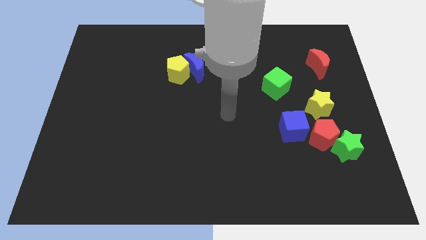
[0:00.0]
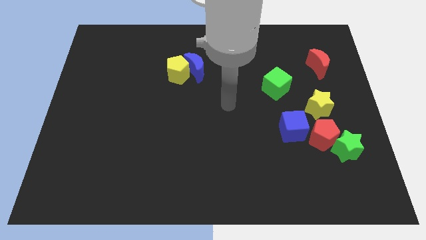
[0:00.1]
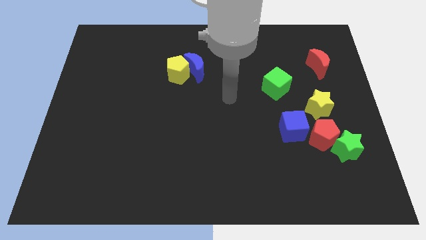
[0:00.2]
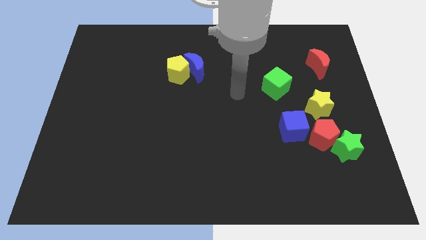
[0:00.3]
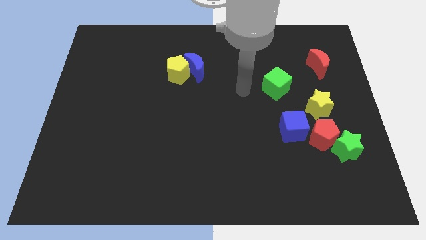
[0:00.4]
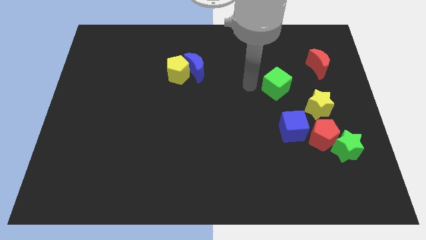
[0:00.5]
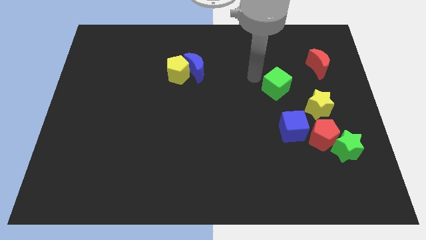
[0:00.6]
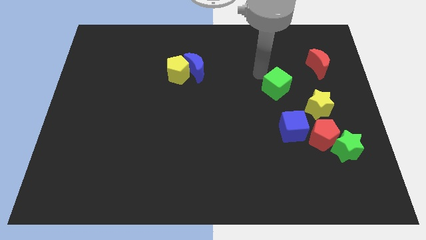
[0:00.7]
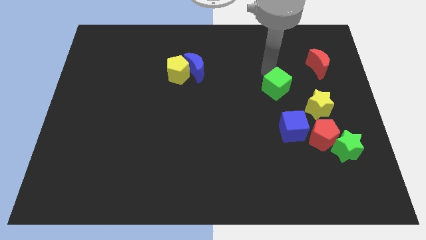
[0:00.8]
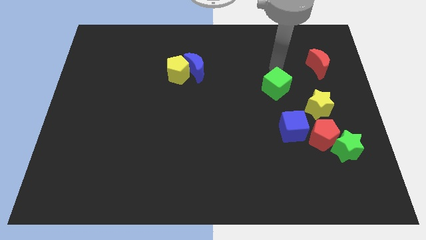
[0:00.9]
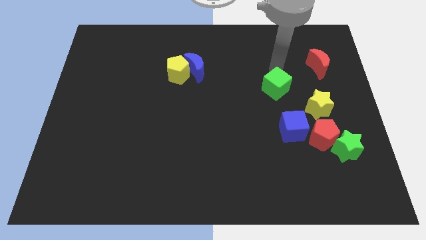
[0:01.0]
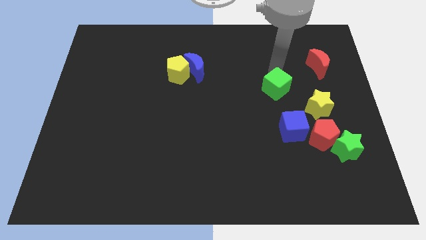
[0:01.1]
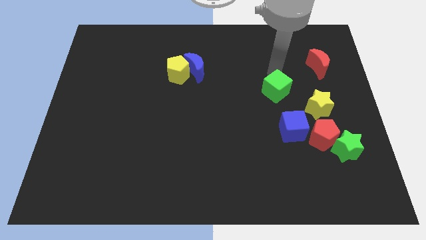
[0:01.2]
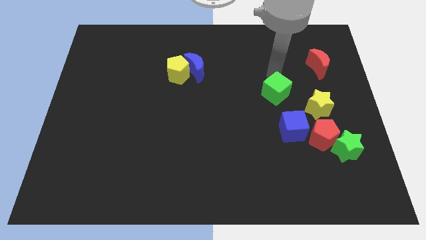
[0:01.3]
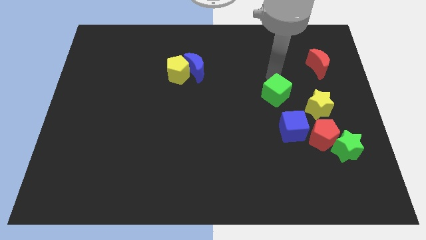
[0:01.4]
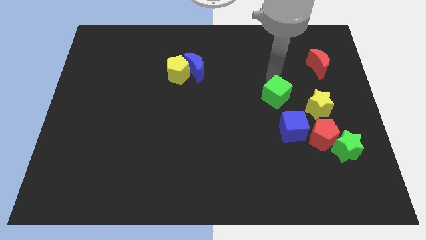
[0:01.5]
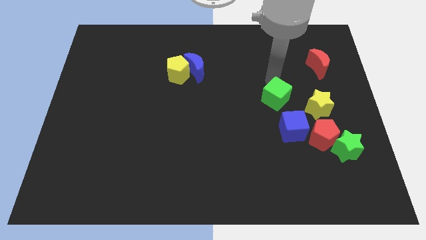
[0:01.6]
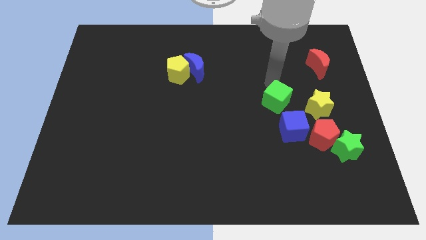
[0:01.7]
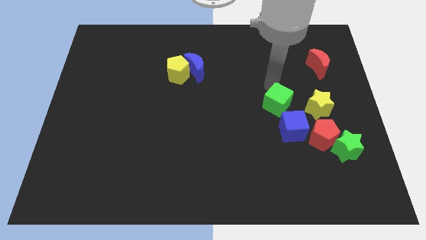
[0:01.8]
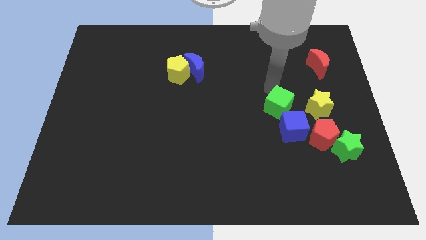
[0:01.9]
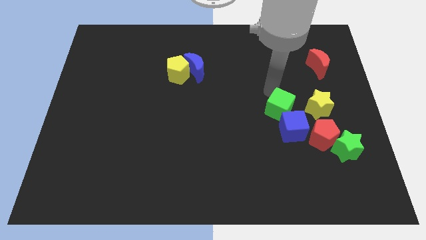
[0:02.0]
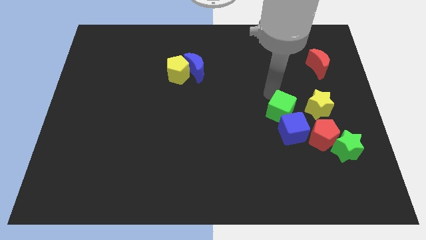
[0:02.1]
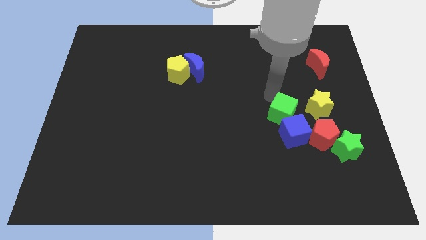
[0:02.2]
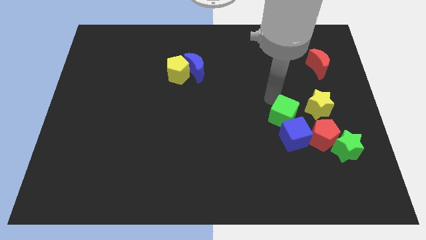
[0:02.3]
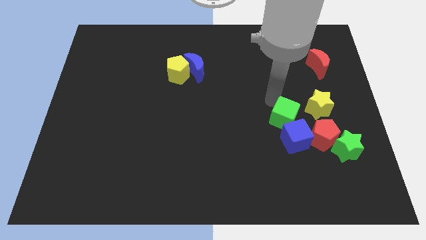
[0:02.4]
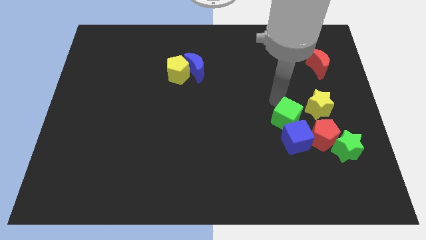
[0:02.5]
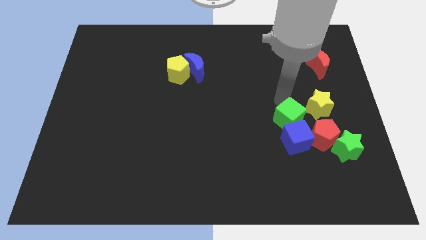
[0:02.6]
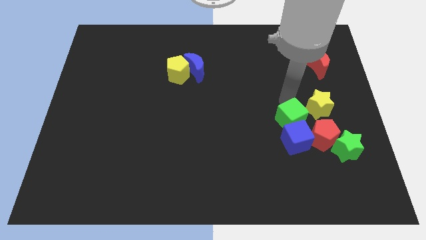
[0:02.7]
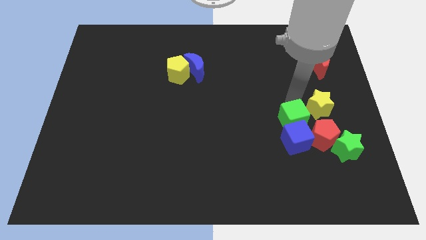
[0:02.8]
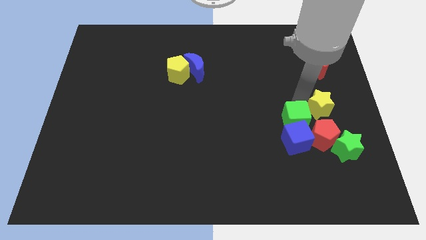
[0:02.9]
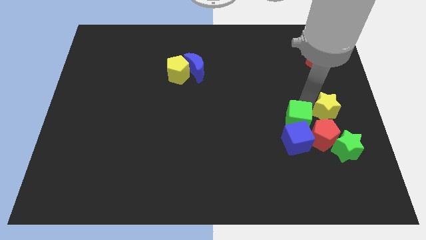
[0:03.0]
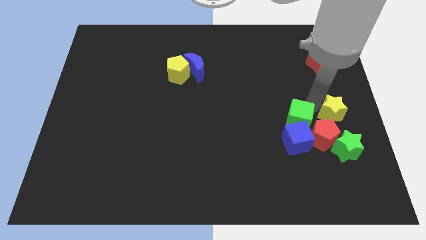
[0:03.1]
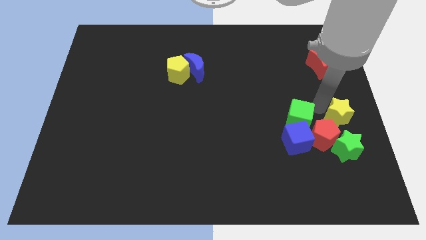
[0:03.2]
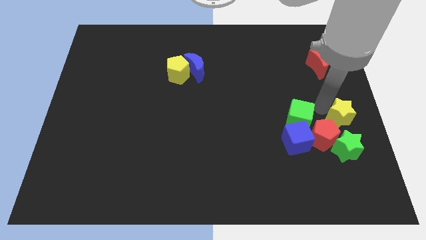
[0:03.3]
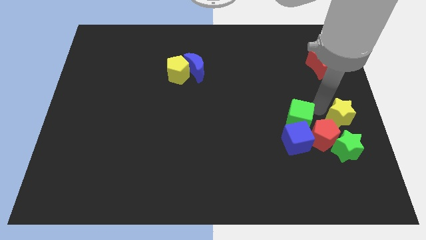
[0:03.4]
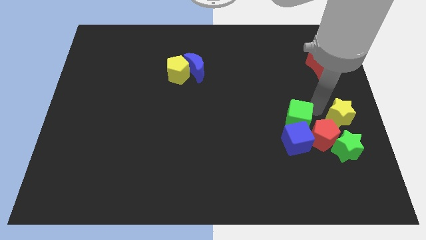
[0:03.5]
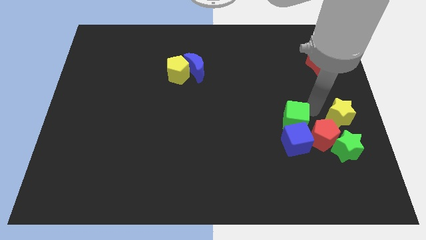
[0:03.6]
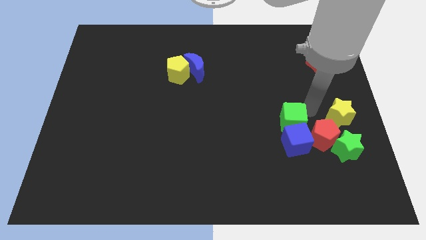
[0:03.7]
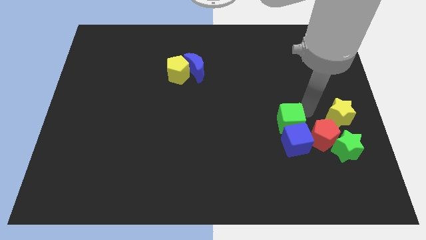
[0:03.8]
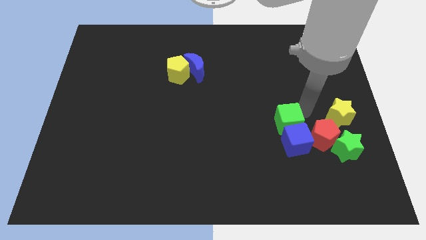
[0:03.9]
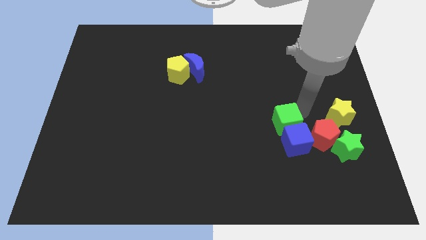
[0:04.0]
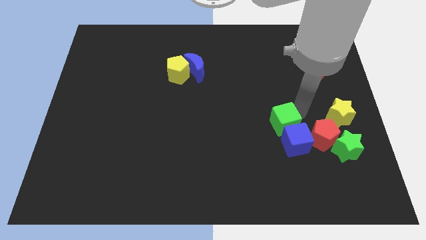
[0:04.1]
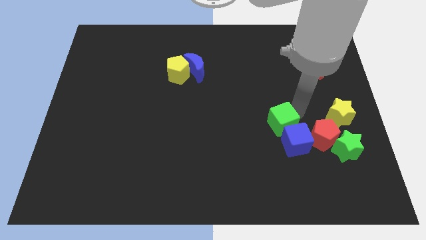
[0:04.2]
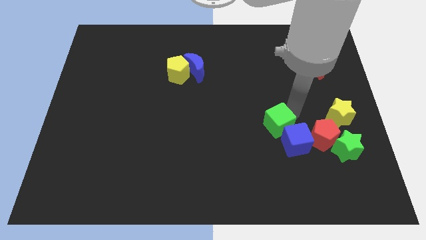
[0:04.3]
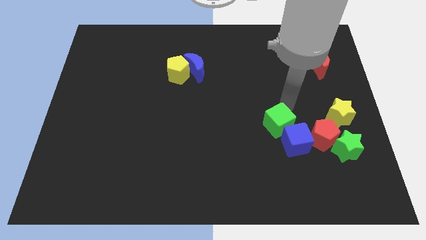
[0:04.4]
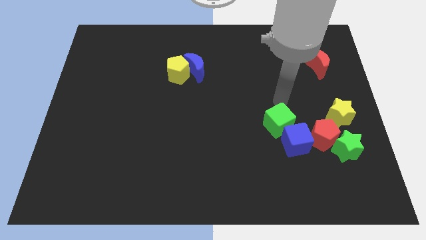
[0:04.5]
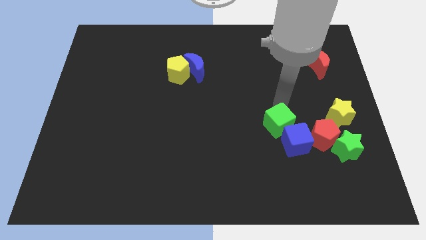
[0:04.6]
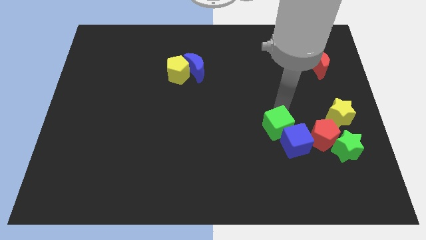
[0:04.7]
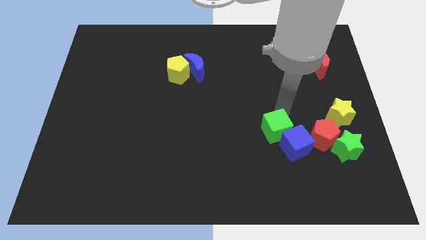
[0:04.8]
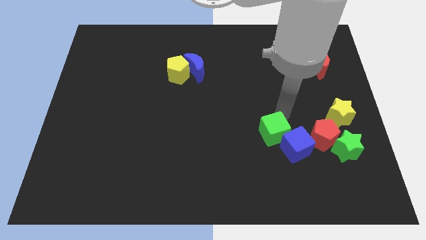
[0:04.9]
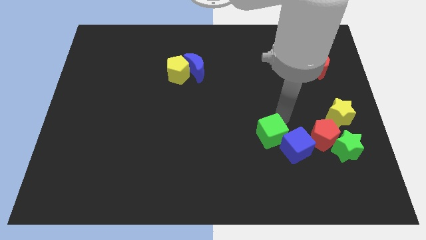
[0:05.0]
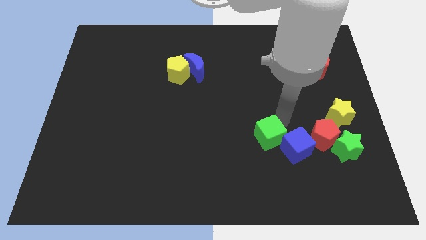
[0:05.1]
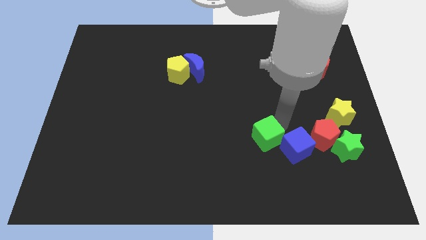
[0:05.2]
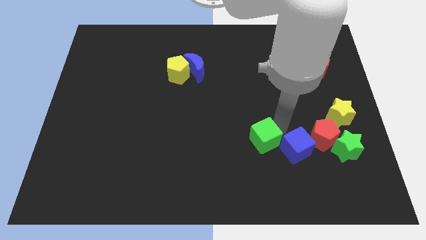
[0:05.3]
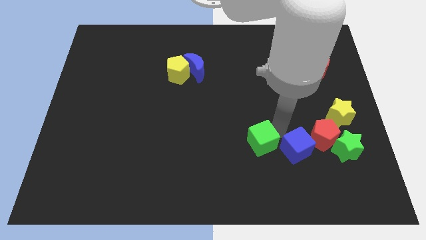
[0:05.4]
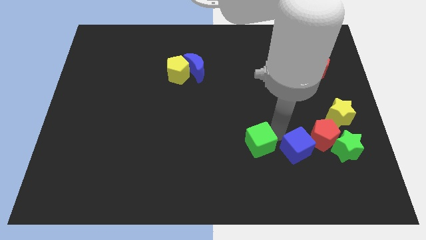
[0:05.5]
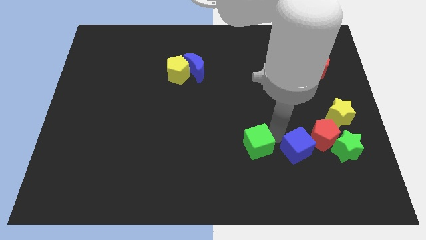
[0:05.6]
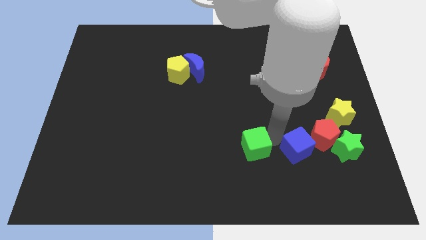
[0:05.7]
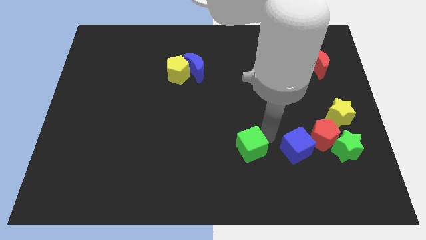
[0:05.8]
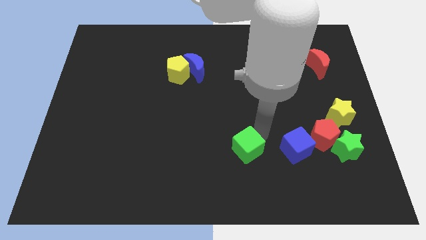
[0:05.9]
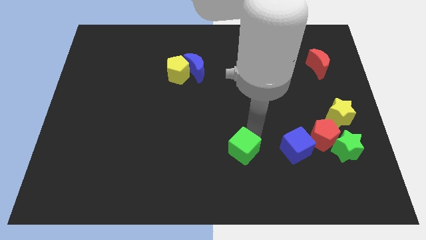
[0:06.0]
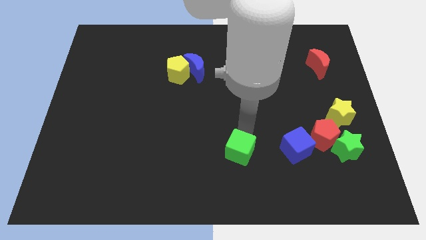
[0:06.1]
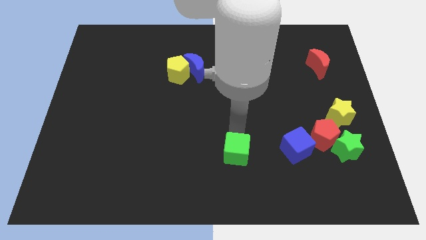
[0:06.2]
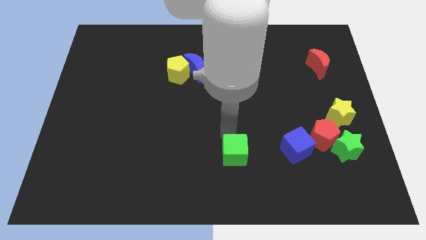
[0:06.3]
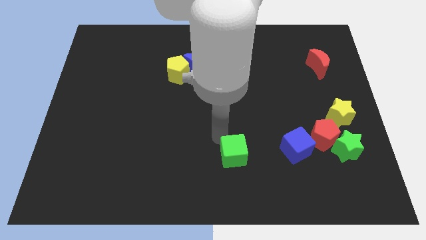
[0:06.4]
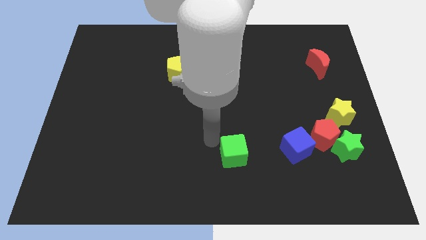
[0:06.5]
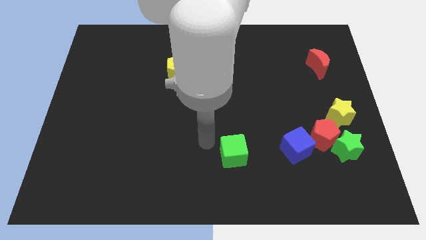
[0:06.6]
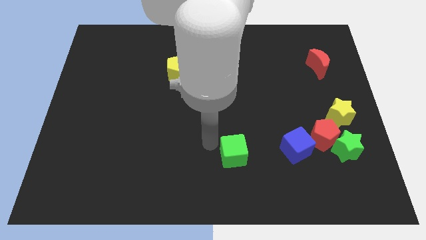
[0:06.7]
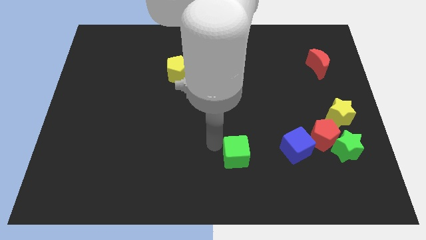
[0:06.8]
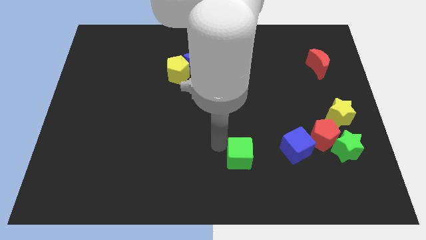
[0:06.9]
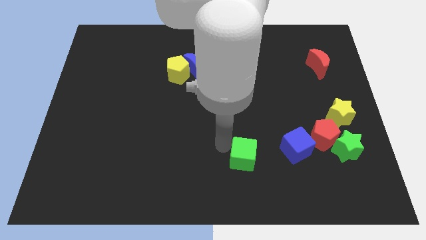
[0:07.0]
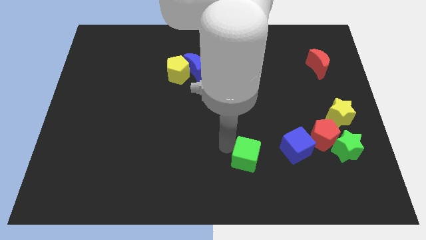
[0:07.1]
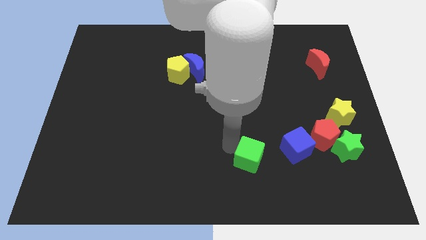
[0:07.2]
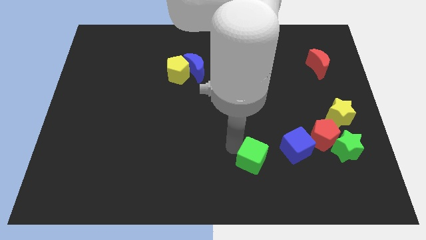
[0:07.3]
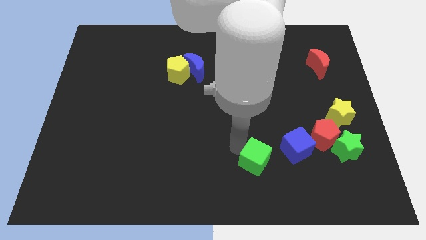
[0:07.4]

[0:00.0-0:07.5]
push the green cube to the bottom left side of the blue cube
